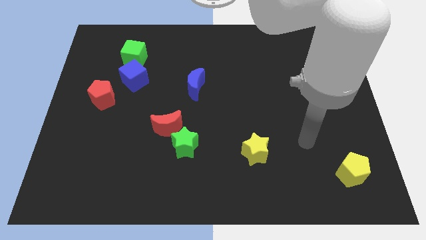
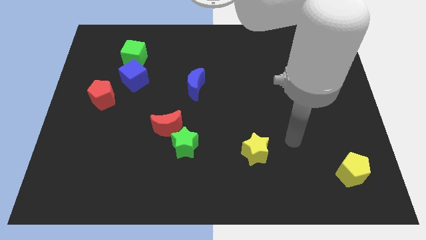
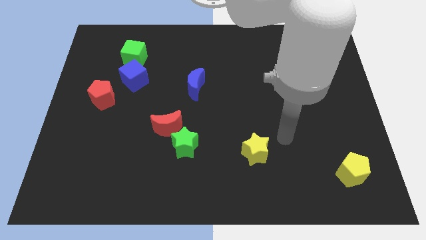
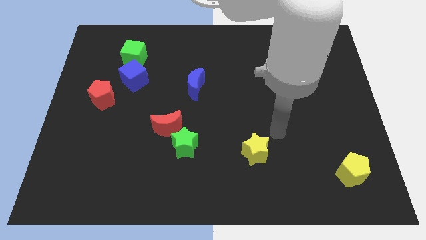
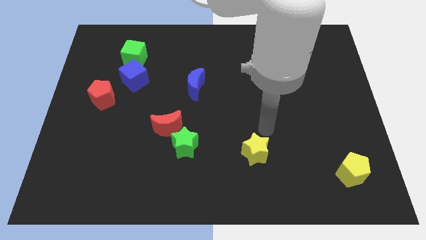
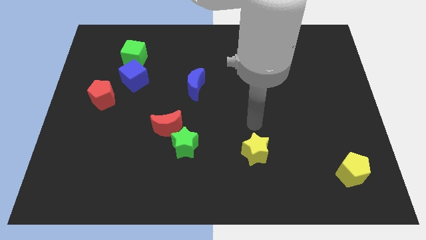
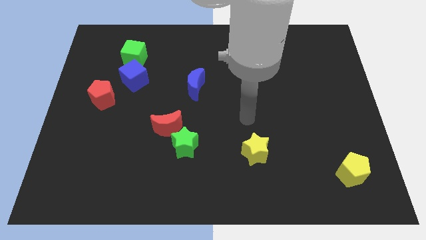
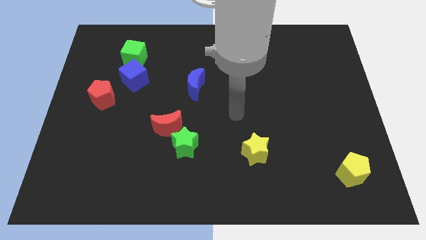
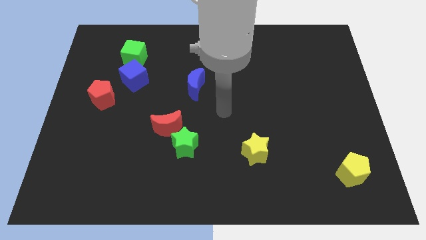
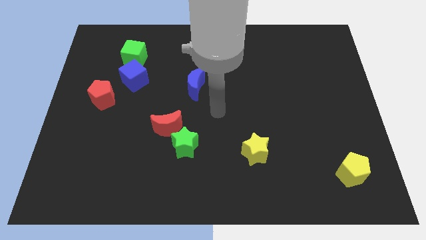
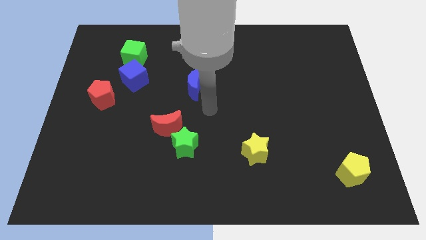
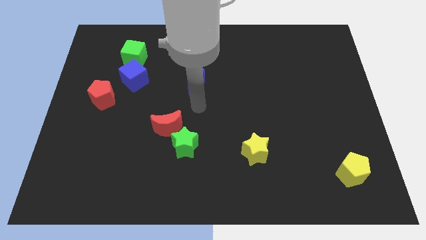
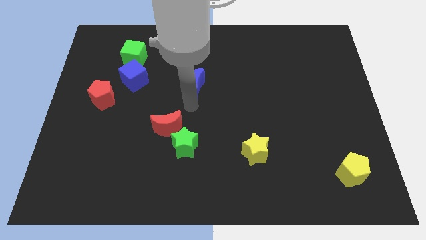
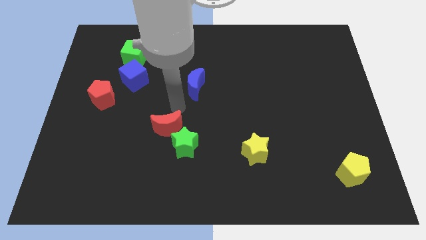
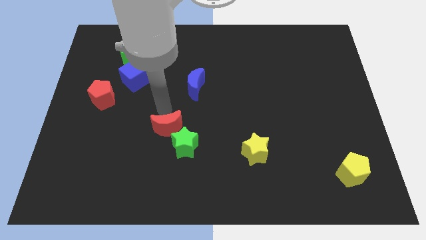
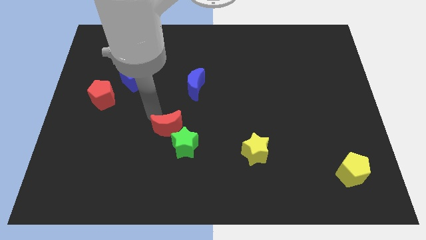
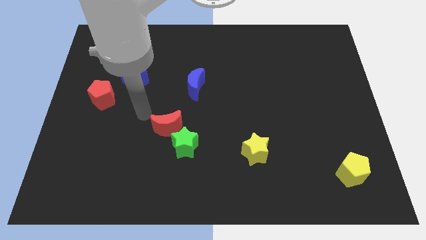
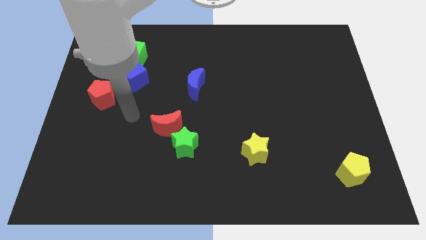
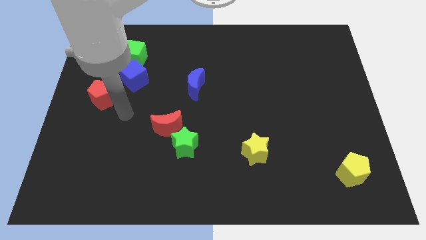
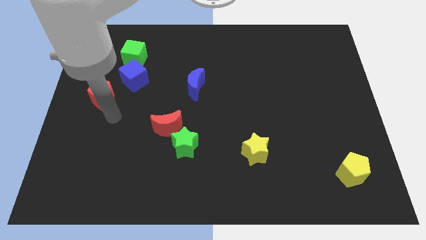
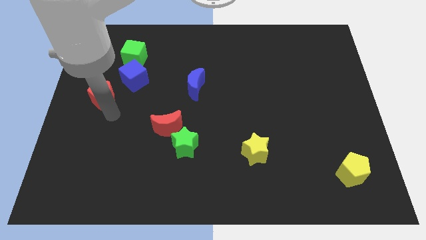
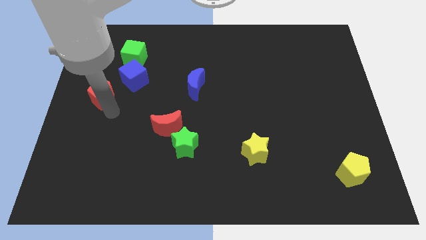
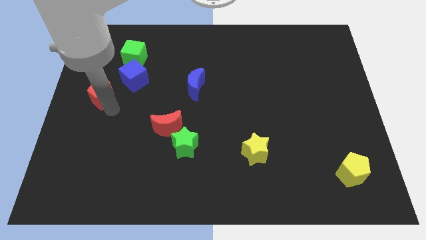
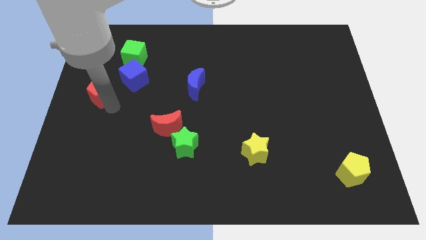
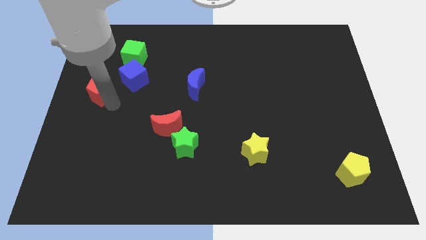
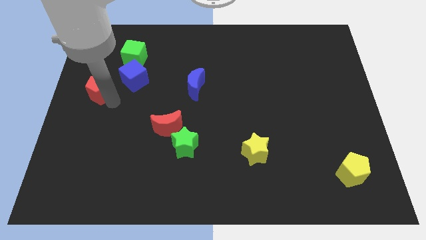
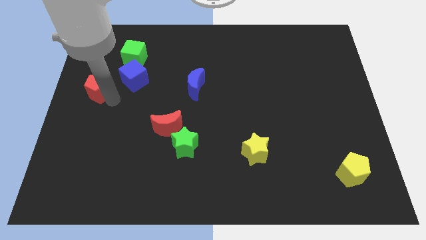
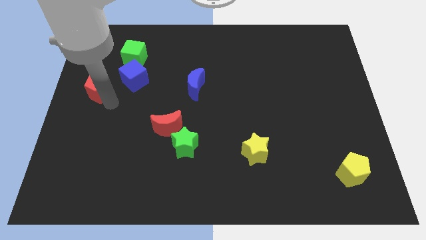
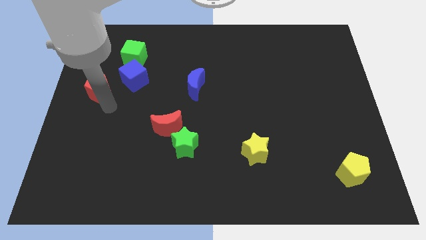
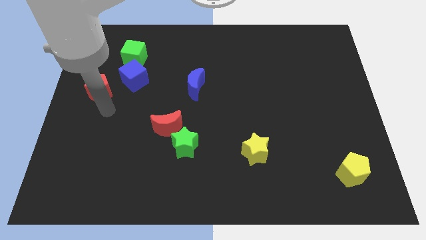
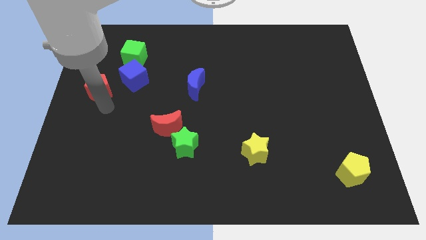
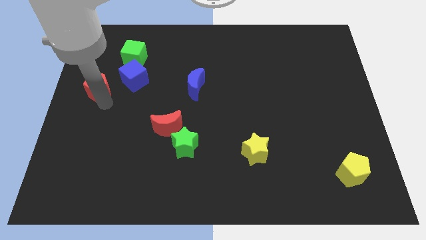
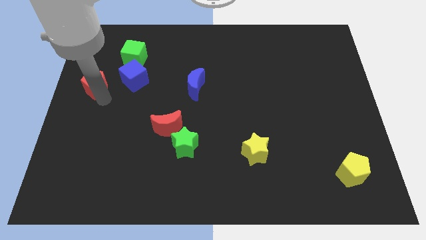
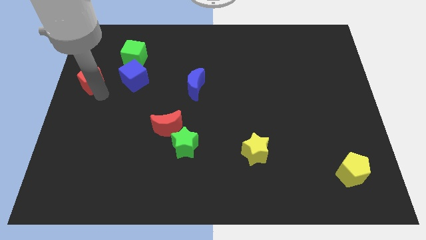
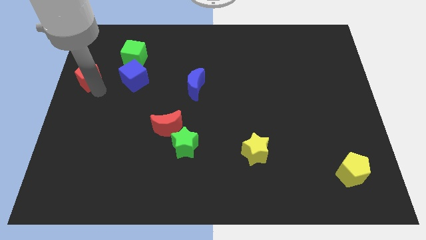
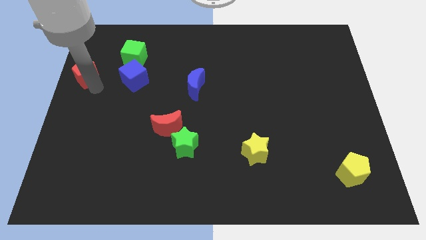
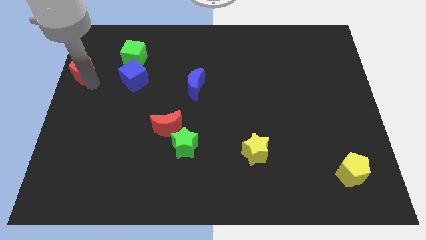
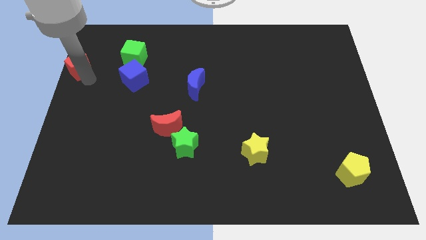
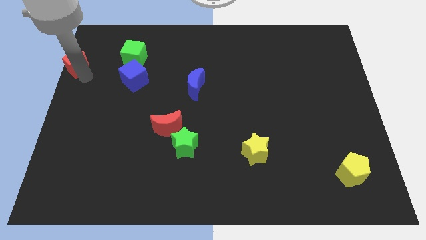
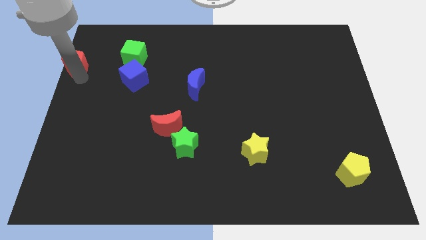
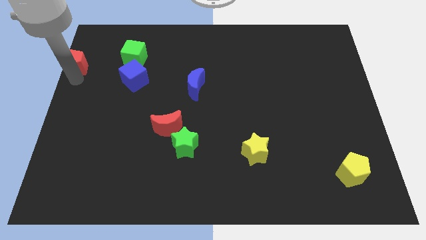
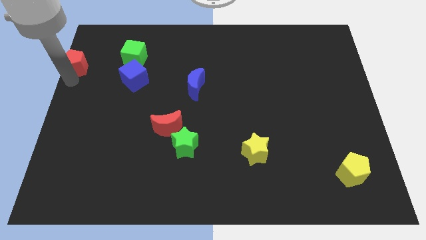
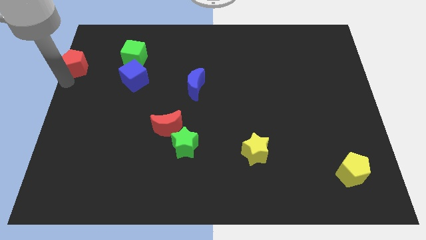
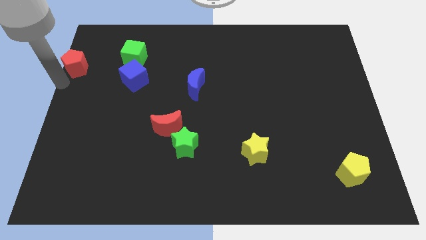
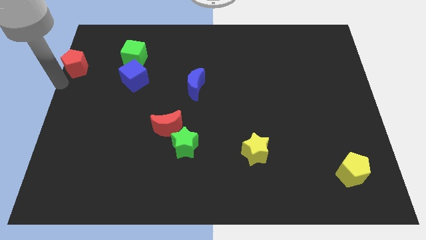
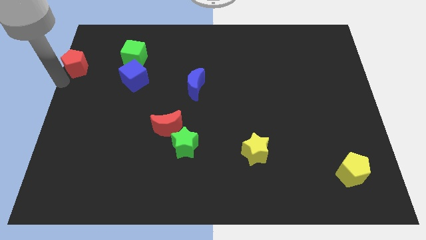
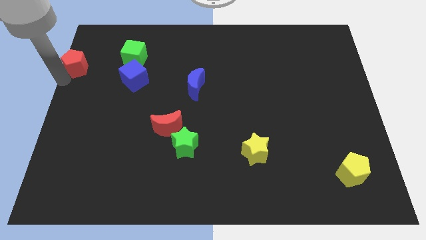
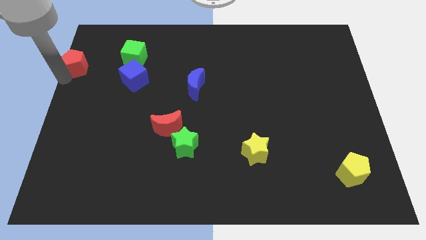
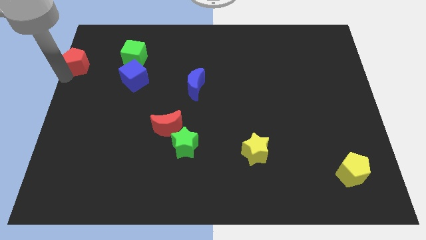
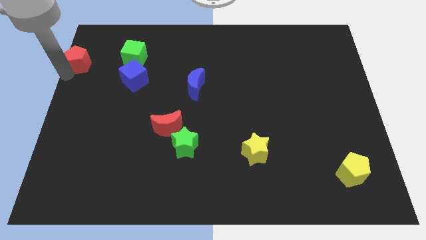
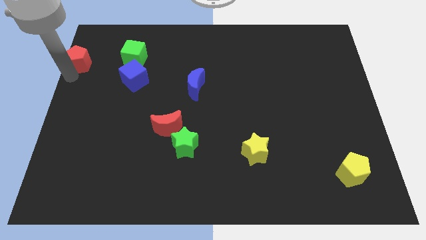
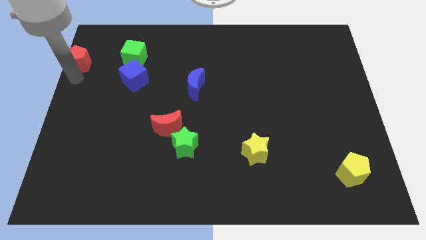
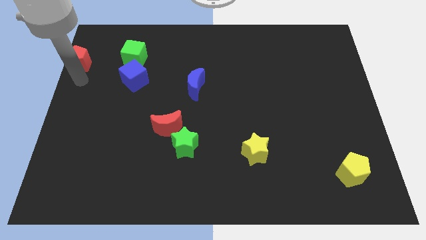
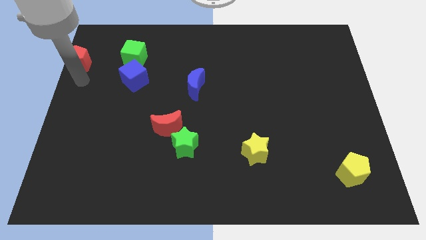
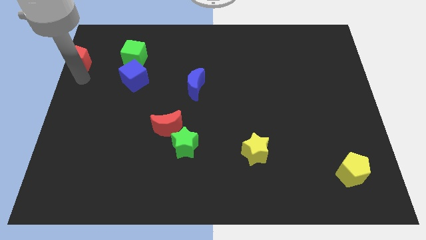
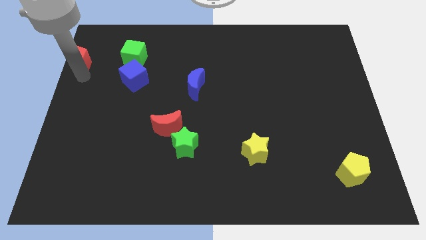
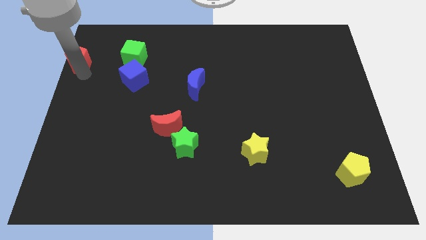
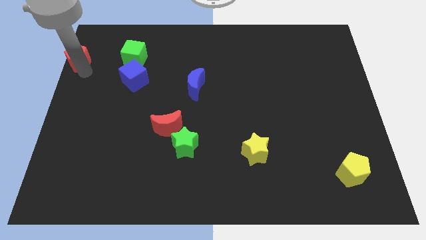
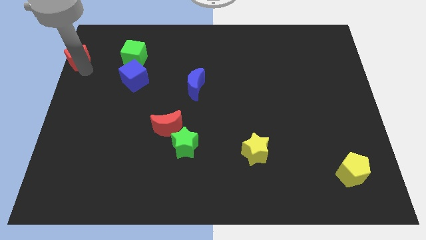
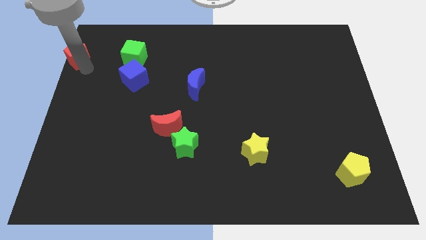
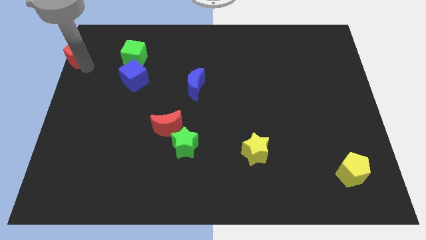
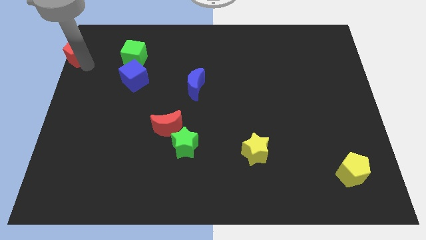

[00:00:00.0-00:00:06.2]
move the red pentagon to the top left

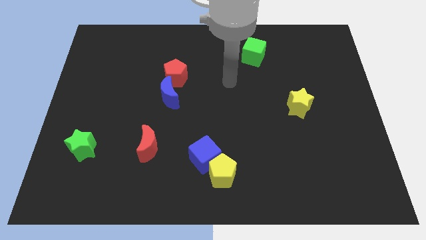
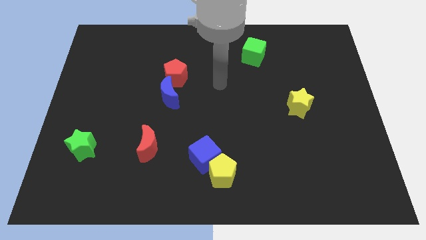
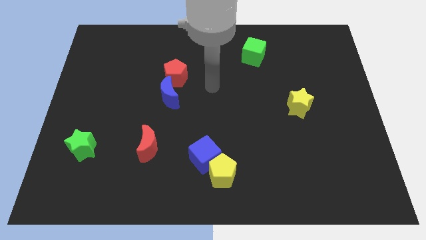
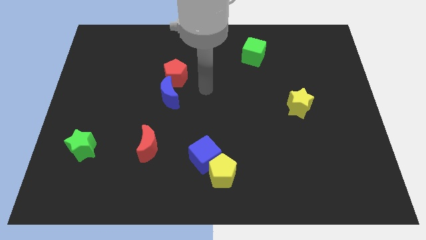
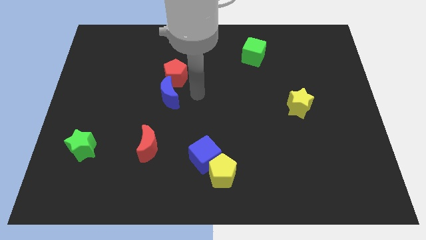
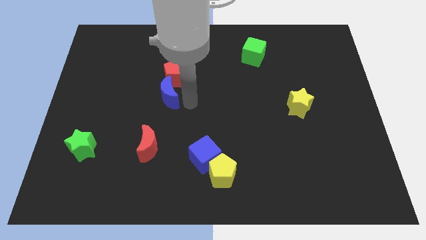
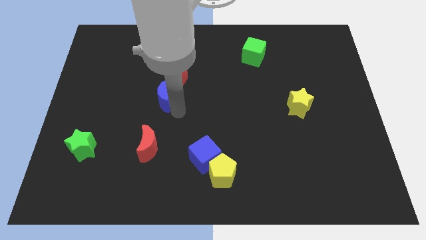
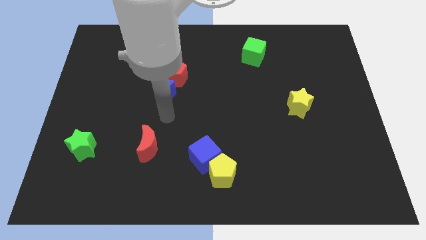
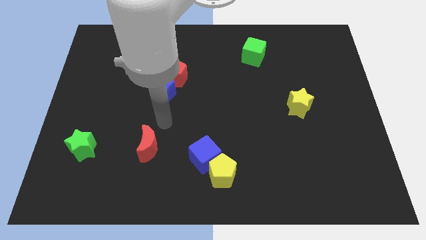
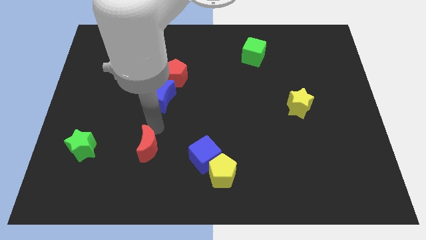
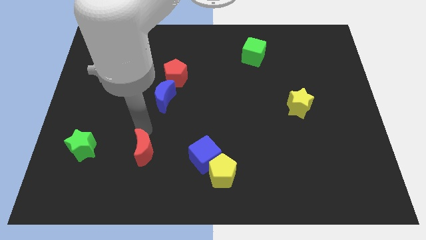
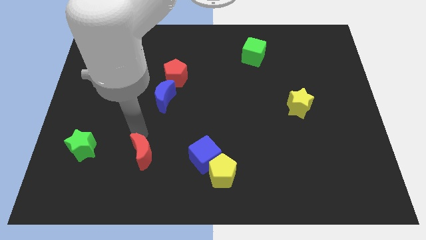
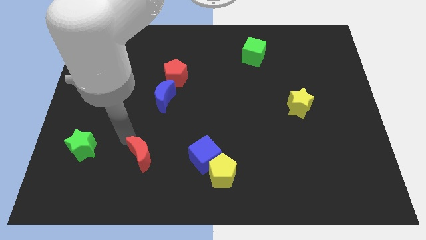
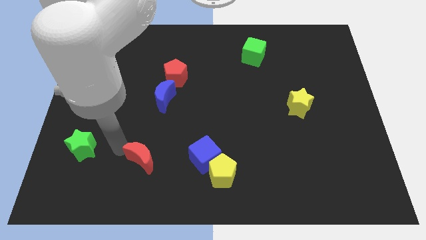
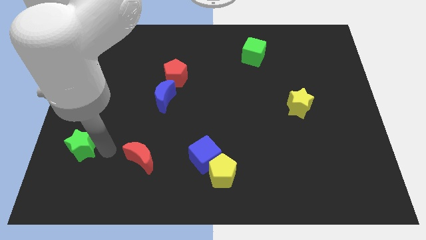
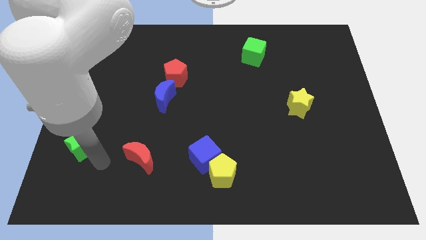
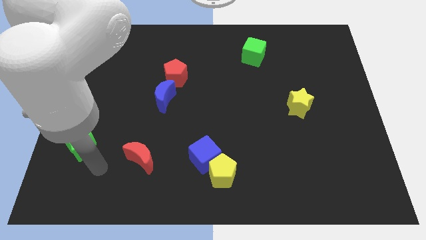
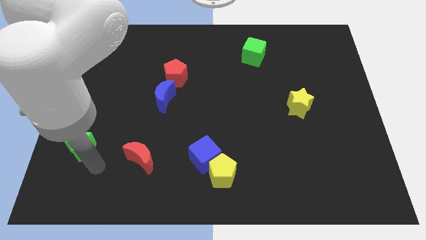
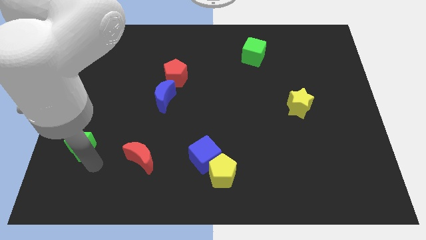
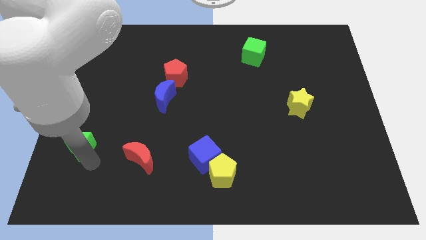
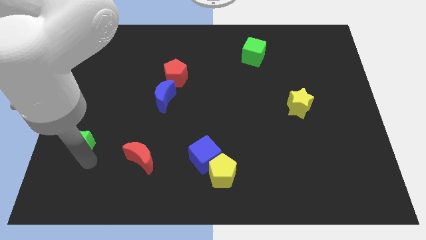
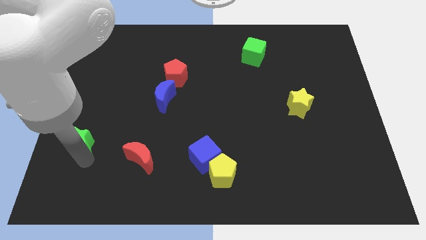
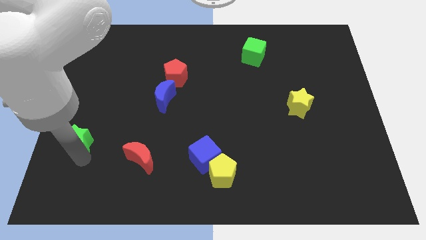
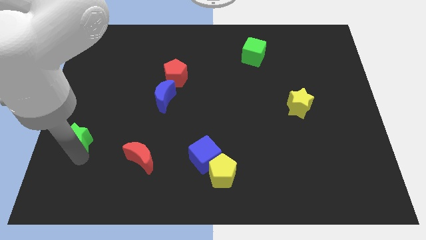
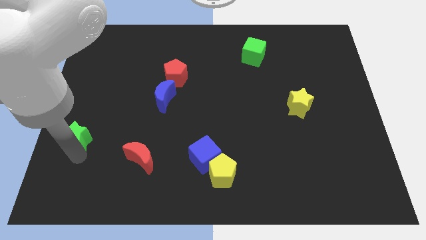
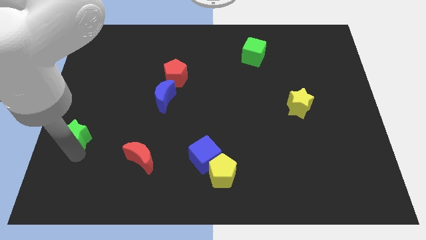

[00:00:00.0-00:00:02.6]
put the green star to the center left
